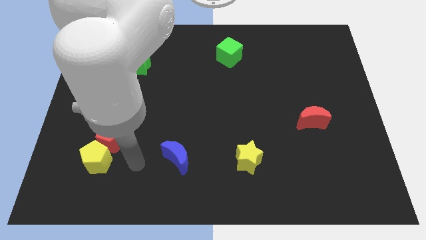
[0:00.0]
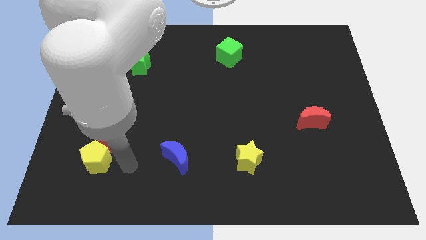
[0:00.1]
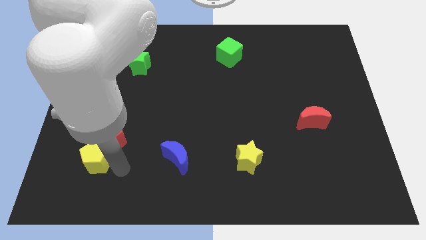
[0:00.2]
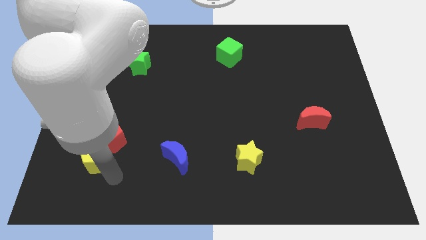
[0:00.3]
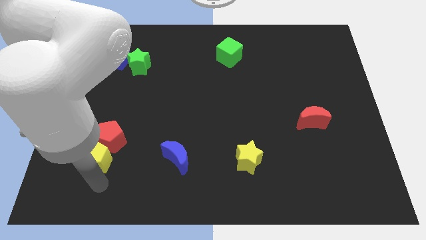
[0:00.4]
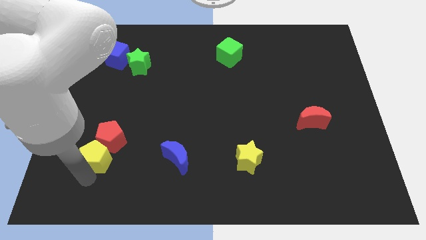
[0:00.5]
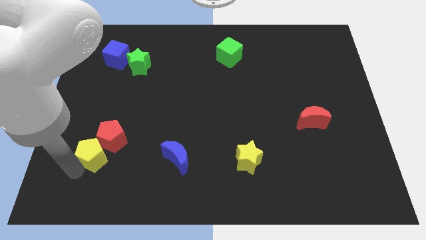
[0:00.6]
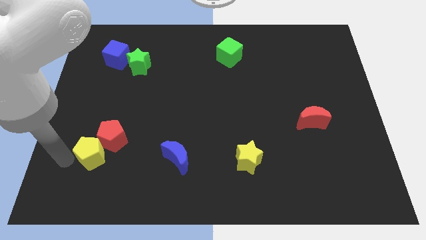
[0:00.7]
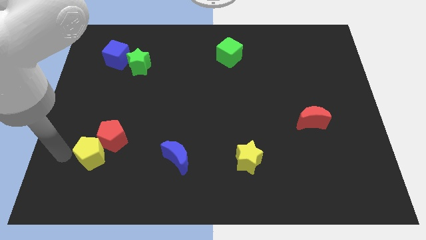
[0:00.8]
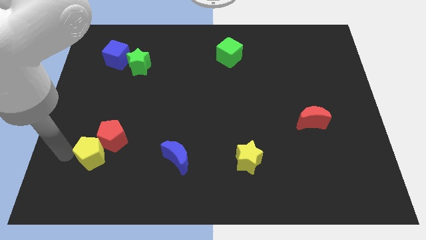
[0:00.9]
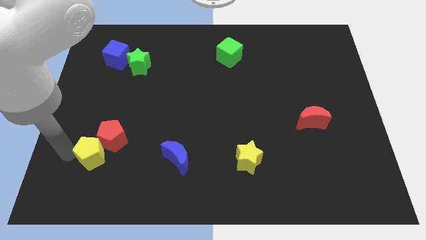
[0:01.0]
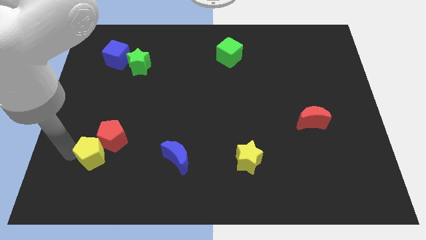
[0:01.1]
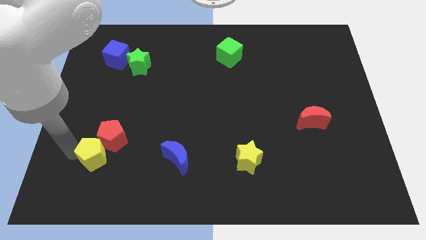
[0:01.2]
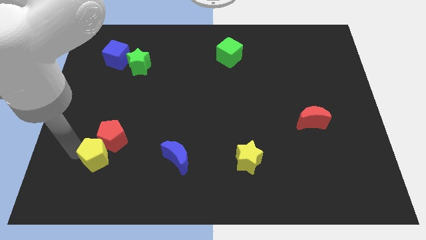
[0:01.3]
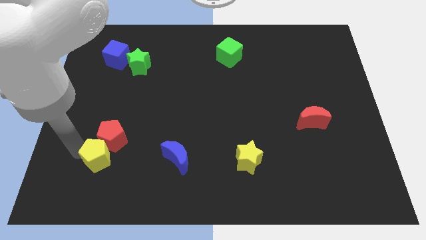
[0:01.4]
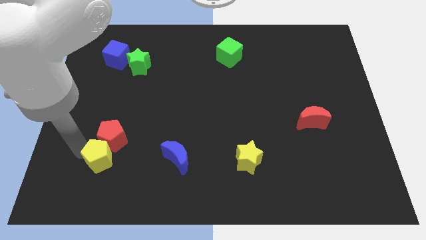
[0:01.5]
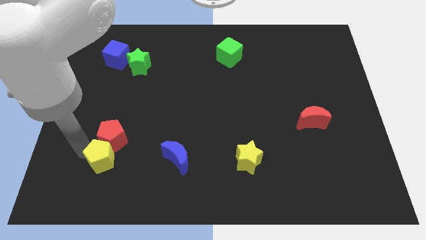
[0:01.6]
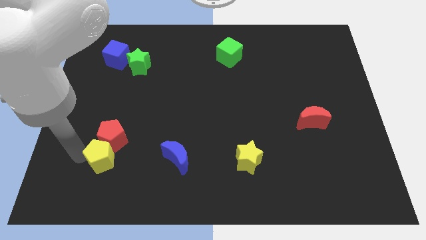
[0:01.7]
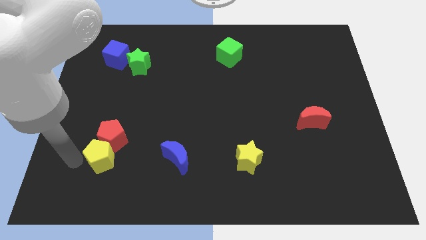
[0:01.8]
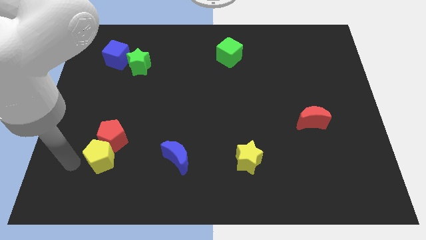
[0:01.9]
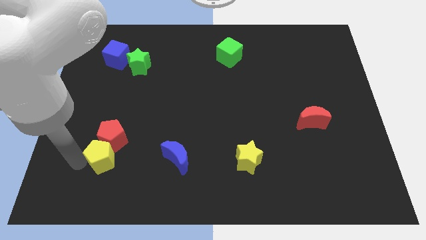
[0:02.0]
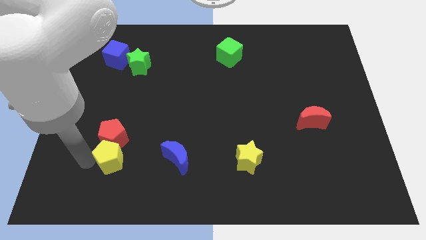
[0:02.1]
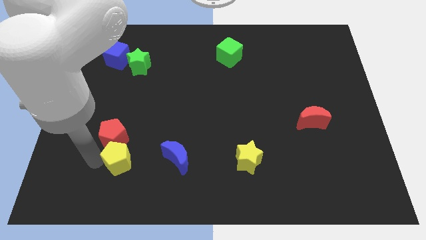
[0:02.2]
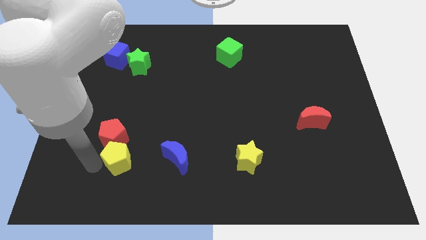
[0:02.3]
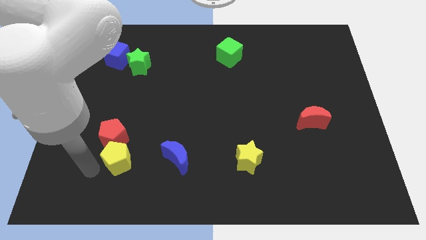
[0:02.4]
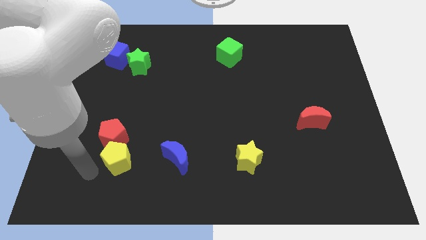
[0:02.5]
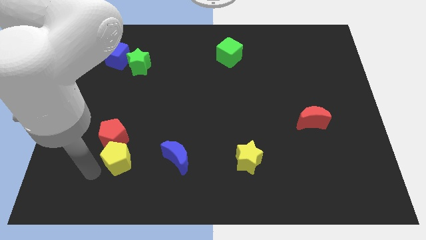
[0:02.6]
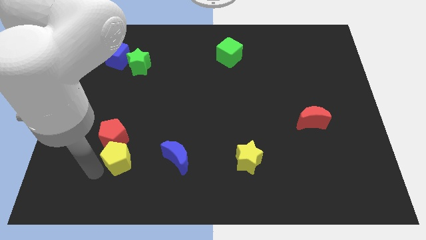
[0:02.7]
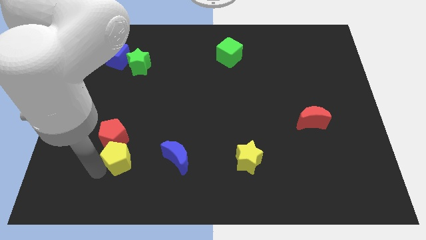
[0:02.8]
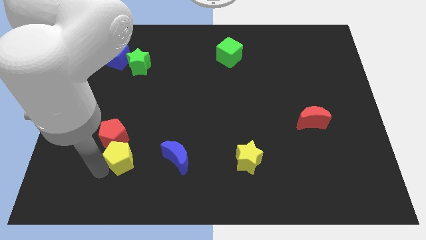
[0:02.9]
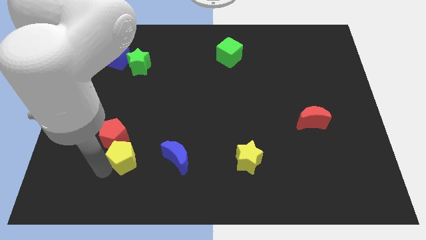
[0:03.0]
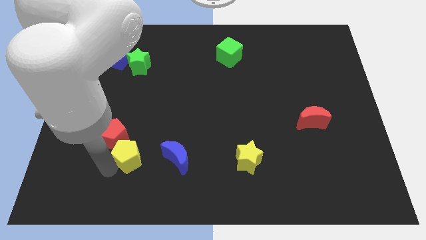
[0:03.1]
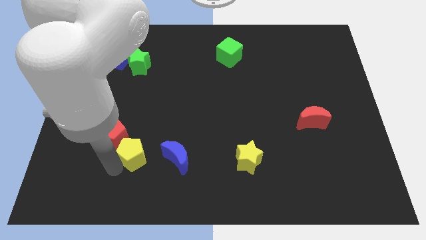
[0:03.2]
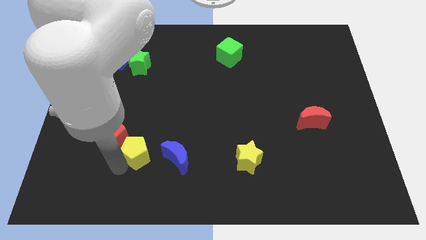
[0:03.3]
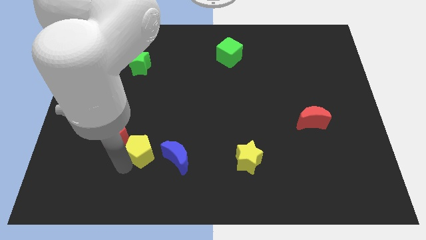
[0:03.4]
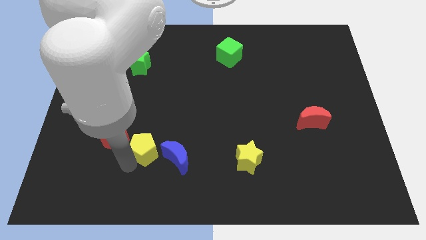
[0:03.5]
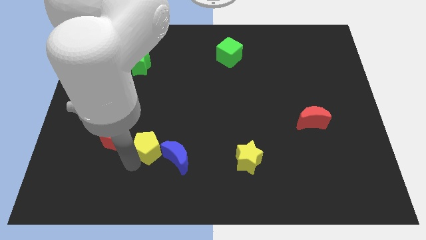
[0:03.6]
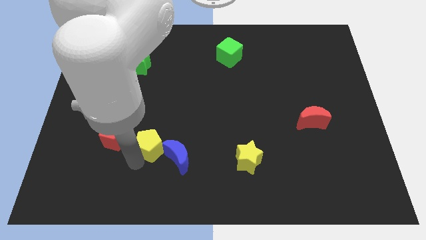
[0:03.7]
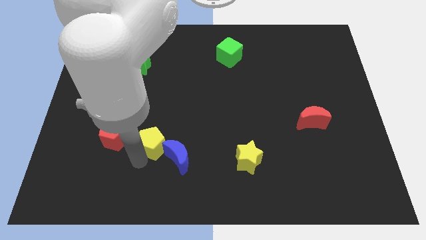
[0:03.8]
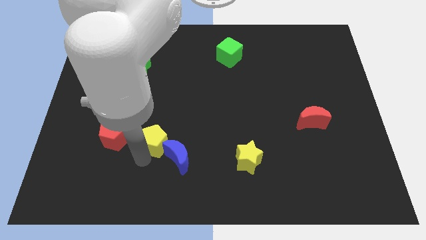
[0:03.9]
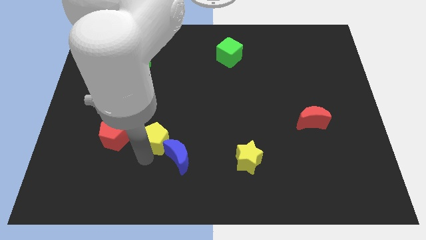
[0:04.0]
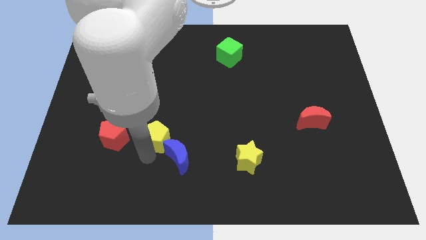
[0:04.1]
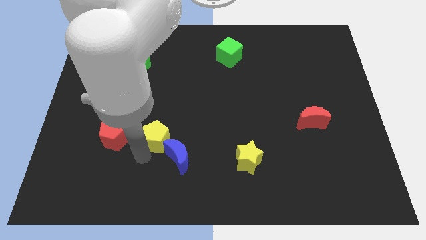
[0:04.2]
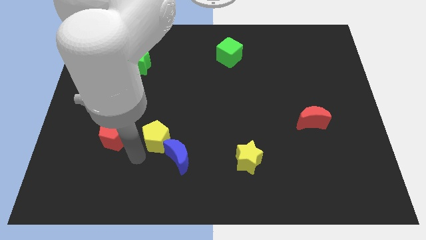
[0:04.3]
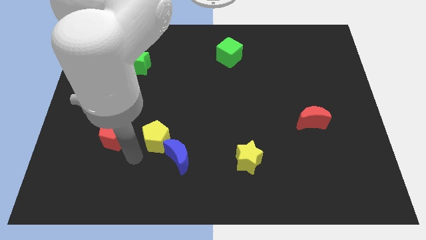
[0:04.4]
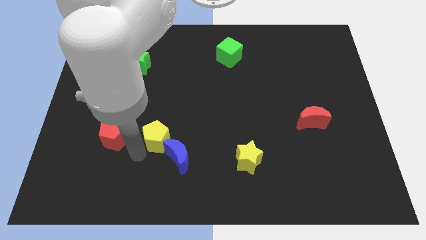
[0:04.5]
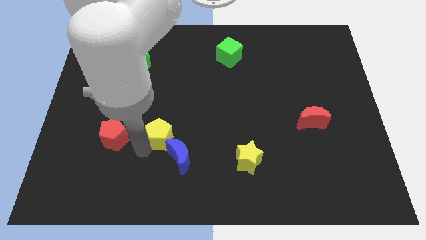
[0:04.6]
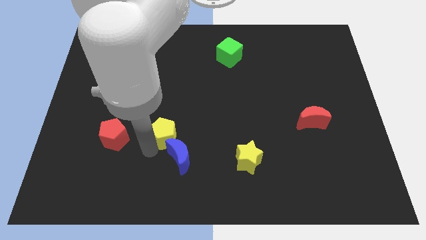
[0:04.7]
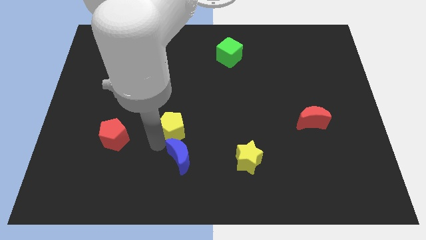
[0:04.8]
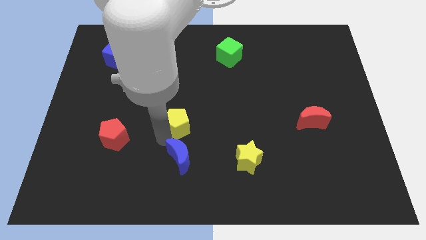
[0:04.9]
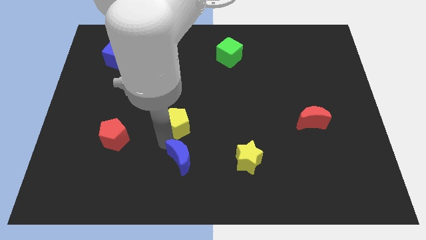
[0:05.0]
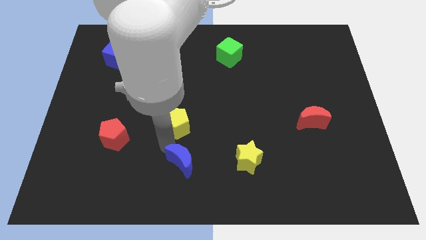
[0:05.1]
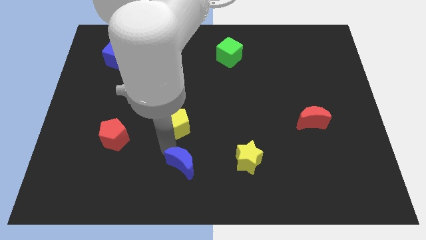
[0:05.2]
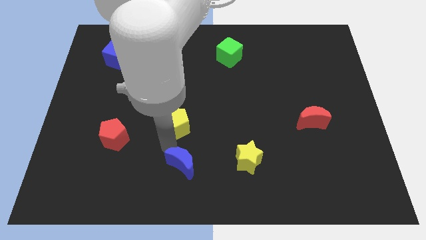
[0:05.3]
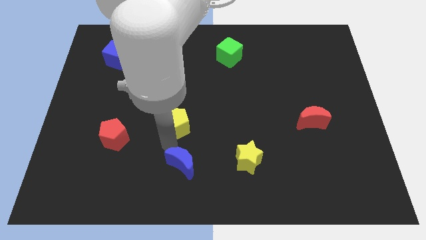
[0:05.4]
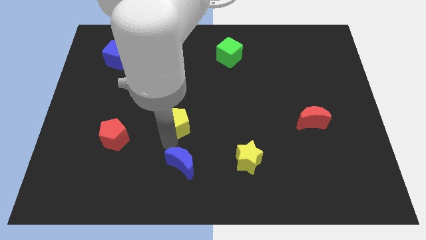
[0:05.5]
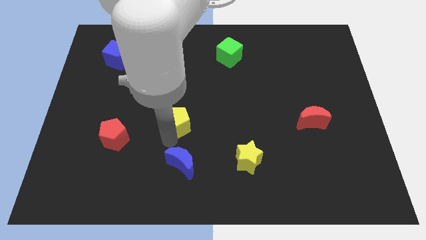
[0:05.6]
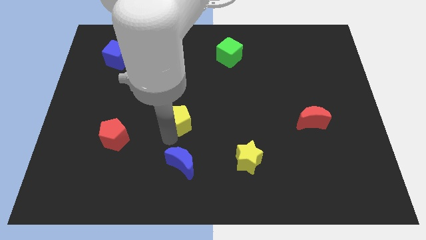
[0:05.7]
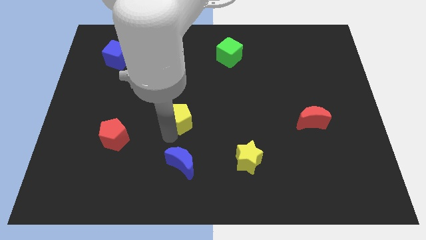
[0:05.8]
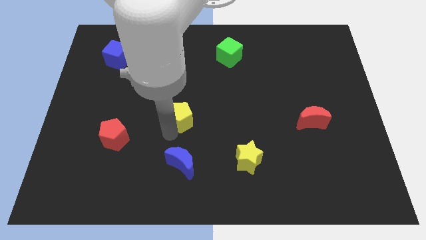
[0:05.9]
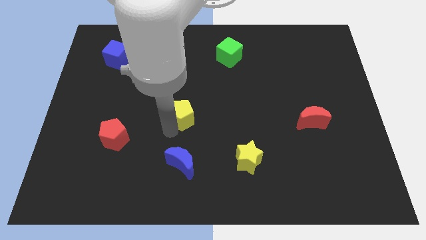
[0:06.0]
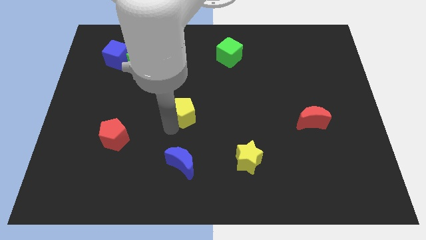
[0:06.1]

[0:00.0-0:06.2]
move the yellow pentagon upwards and right diagonally

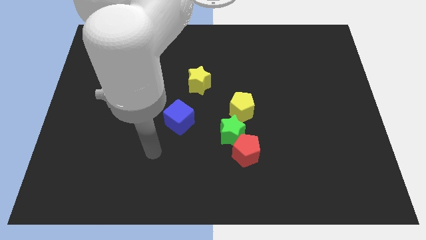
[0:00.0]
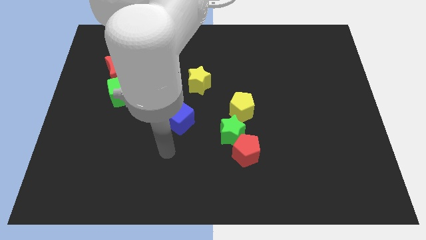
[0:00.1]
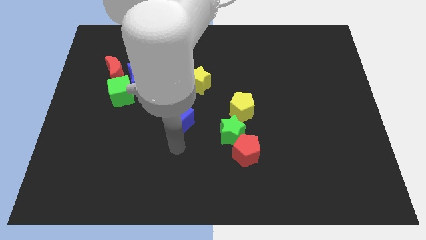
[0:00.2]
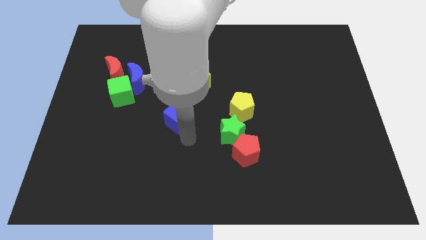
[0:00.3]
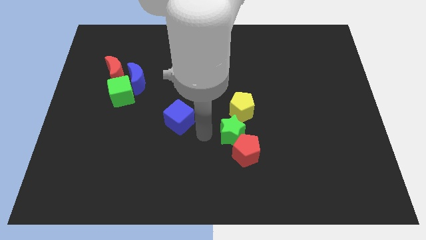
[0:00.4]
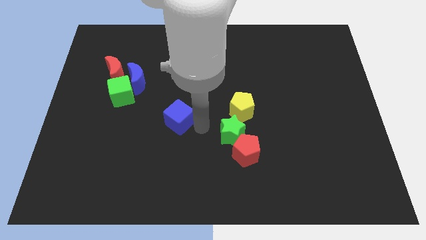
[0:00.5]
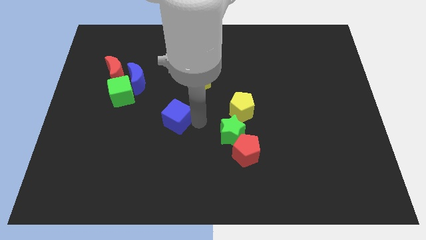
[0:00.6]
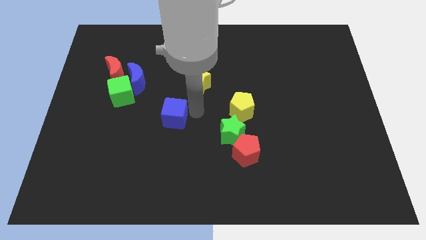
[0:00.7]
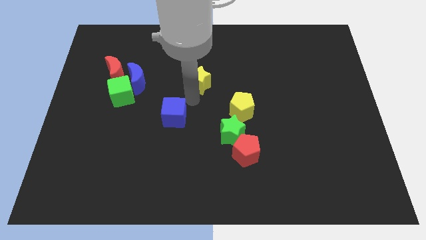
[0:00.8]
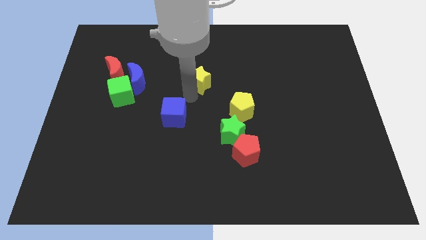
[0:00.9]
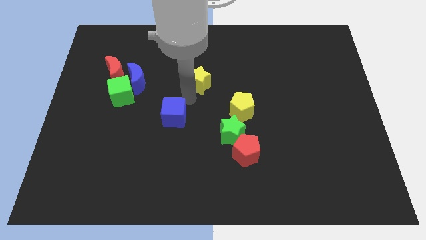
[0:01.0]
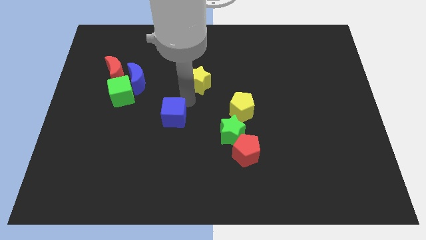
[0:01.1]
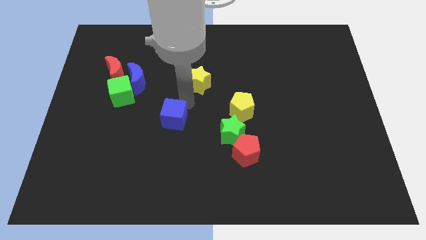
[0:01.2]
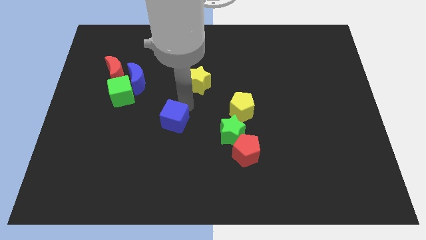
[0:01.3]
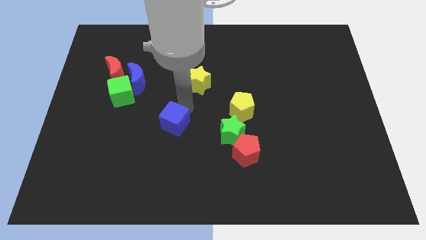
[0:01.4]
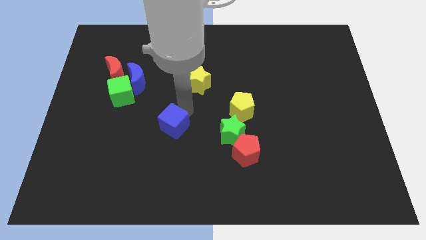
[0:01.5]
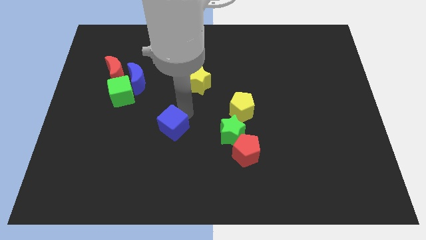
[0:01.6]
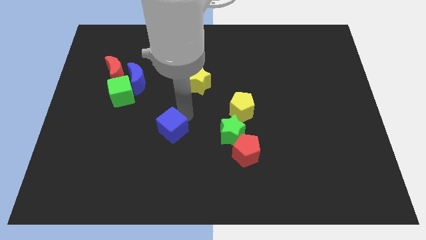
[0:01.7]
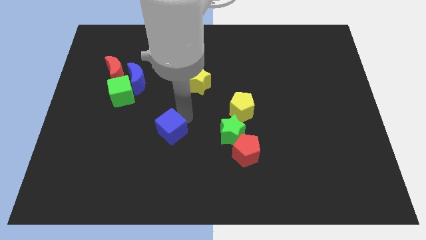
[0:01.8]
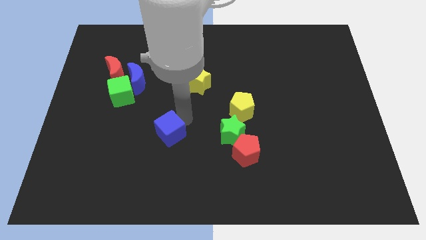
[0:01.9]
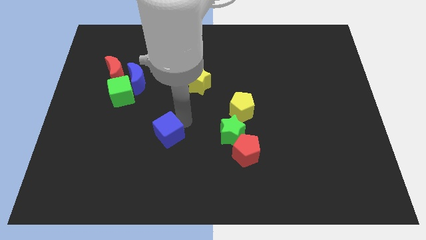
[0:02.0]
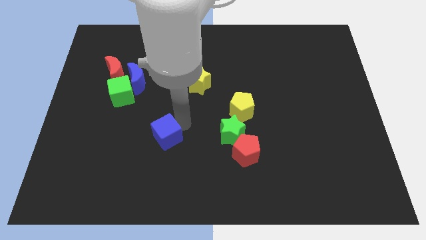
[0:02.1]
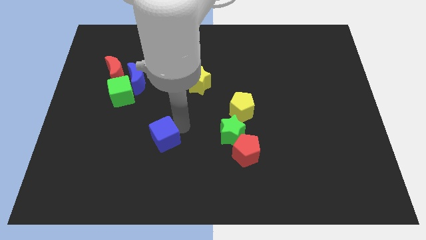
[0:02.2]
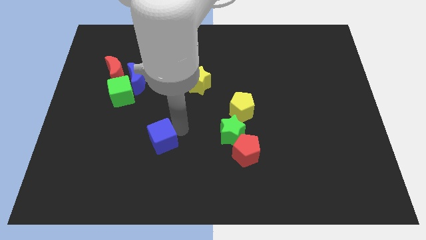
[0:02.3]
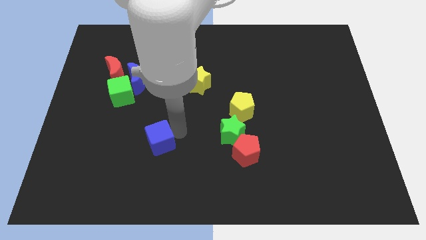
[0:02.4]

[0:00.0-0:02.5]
push the blue cube down and to the left a little
